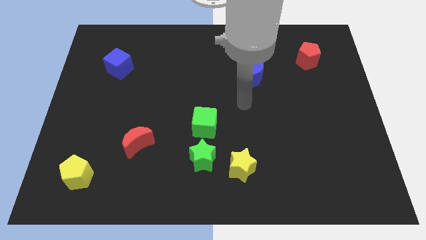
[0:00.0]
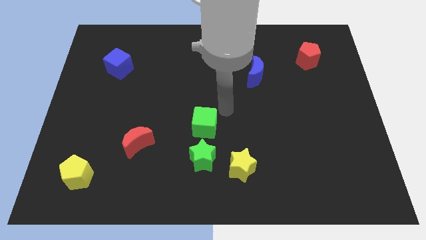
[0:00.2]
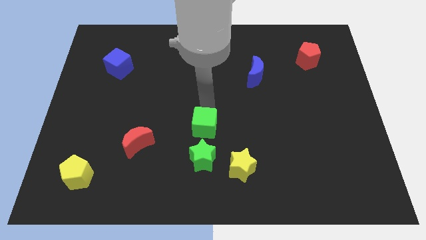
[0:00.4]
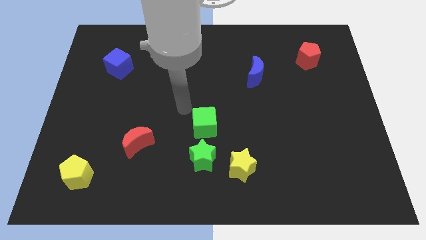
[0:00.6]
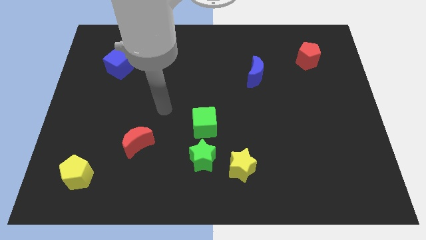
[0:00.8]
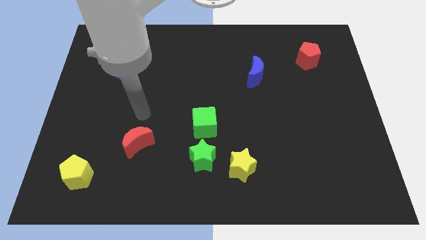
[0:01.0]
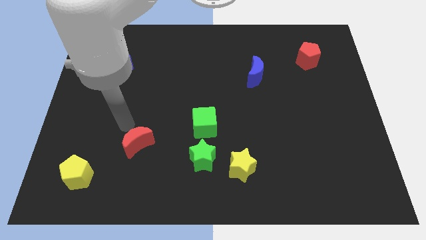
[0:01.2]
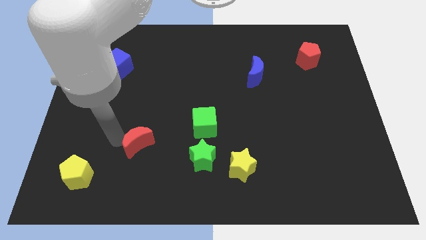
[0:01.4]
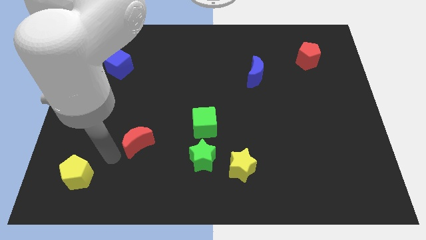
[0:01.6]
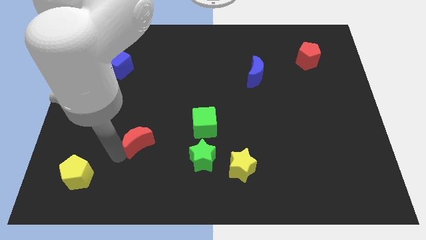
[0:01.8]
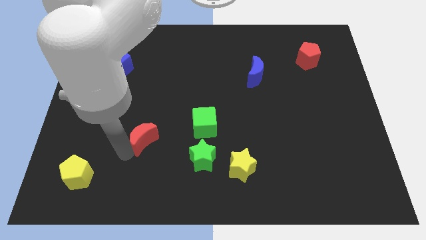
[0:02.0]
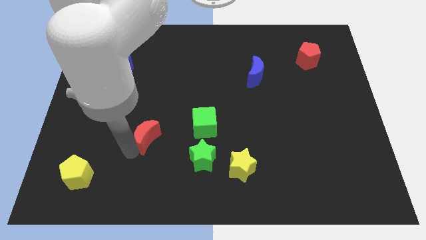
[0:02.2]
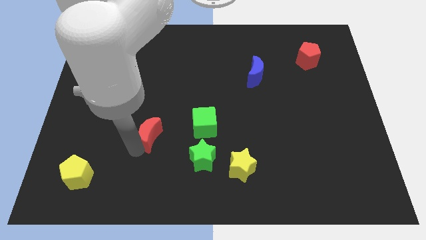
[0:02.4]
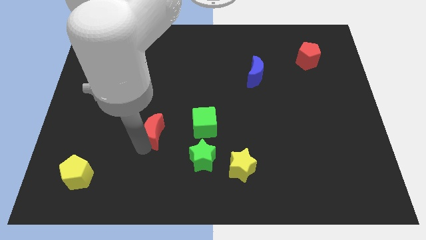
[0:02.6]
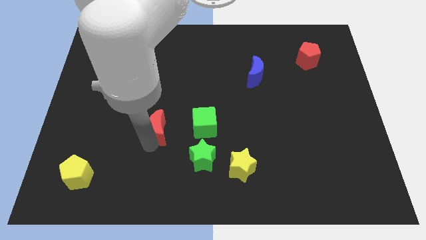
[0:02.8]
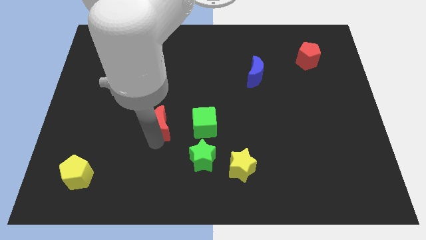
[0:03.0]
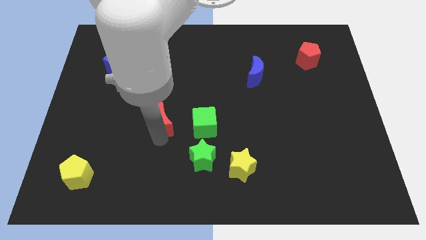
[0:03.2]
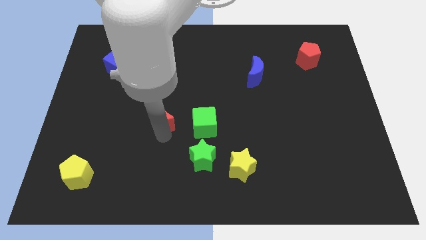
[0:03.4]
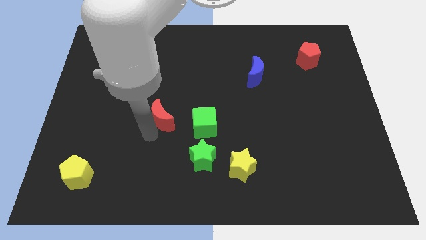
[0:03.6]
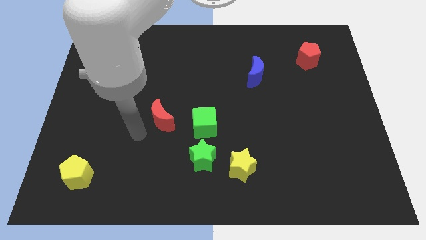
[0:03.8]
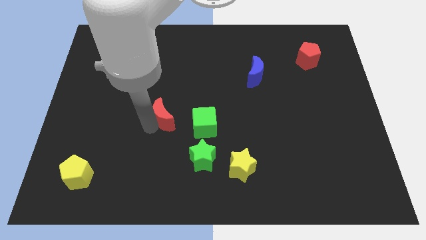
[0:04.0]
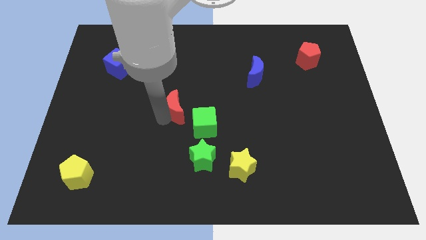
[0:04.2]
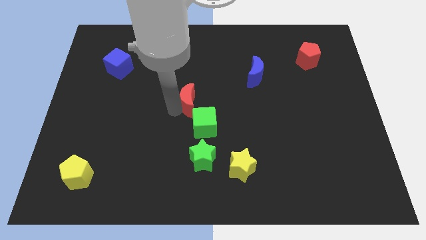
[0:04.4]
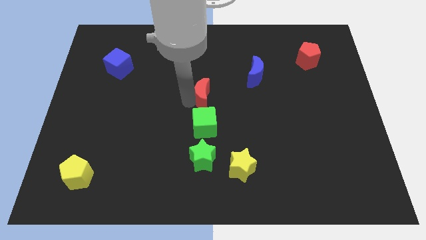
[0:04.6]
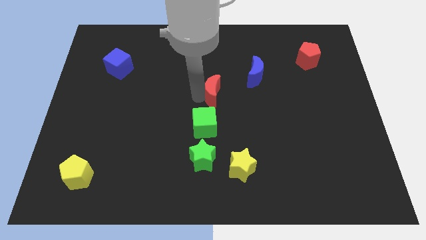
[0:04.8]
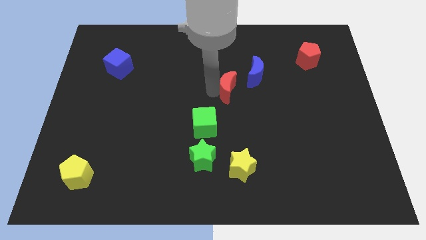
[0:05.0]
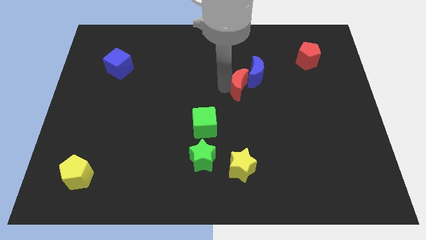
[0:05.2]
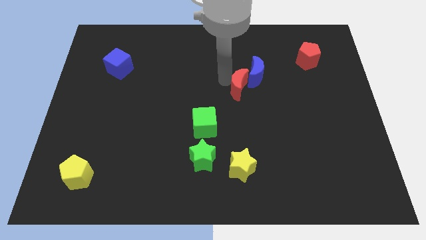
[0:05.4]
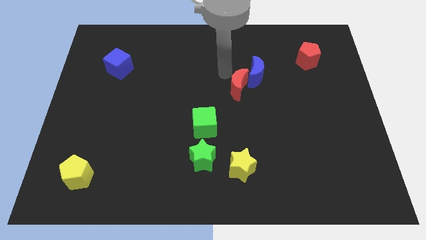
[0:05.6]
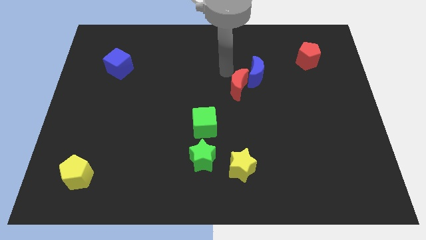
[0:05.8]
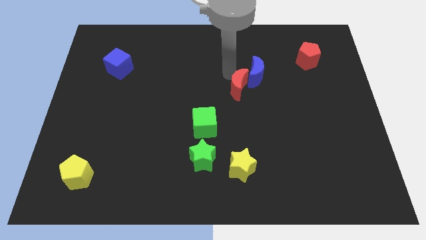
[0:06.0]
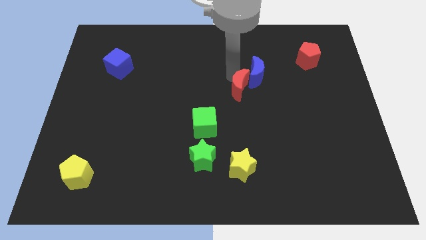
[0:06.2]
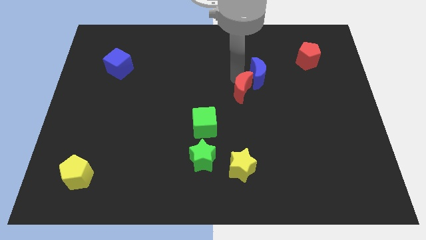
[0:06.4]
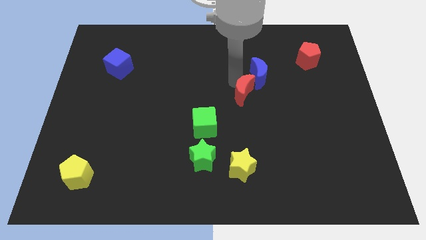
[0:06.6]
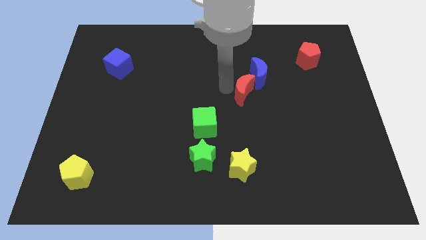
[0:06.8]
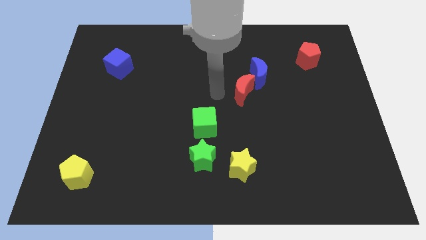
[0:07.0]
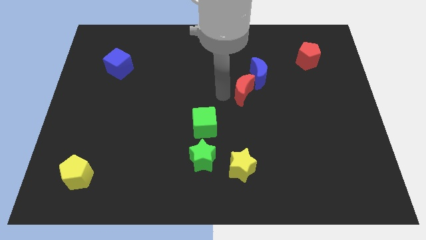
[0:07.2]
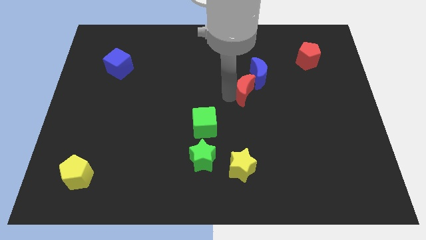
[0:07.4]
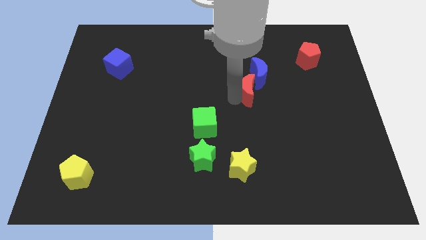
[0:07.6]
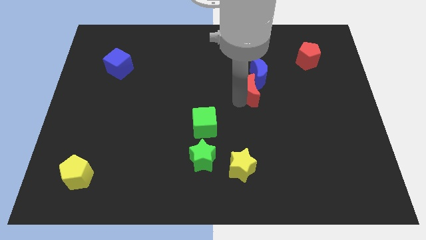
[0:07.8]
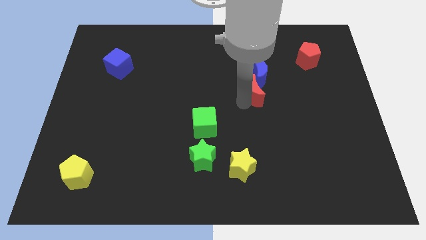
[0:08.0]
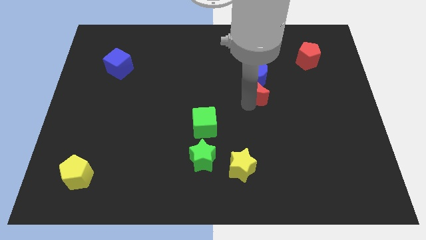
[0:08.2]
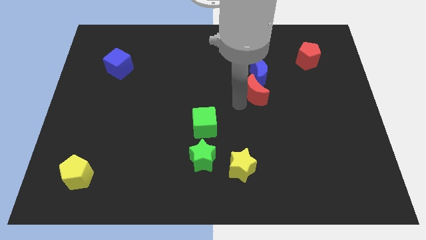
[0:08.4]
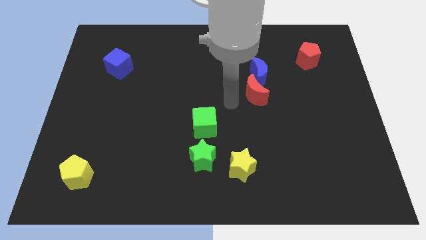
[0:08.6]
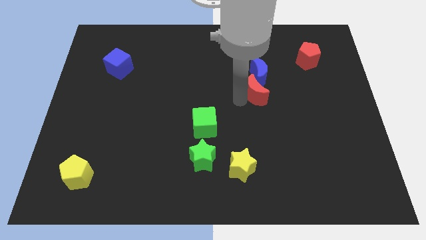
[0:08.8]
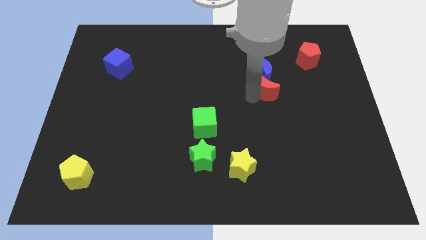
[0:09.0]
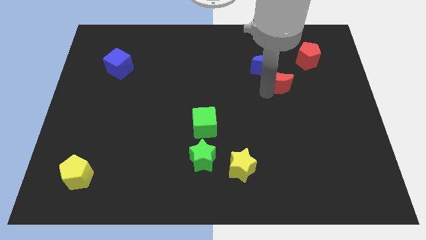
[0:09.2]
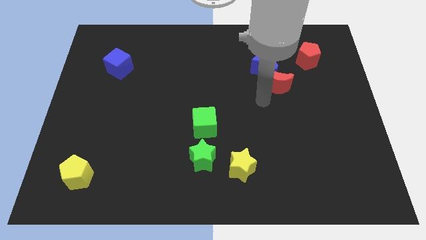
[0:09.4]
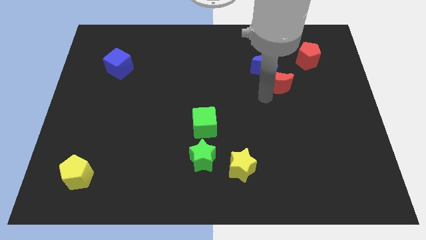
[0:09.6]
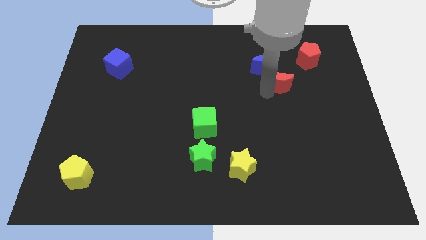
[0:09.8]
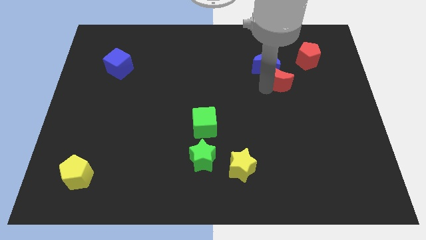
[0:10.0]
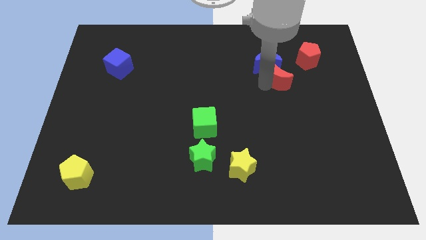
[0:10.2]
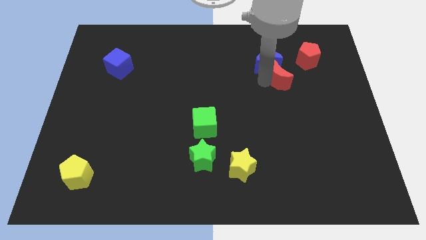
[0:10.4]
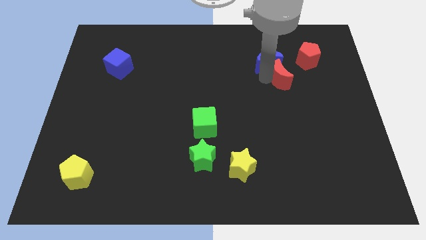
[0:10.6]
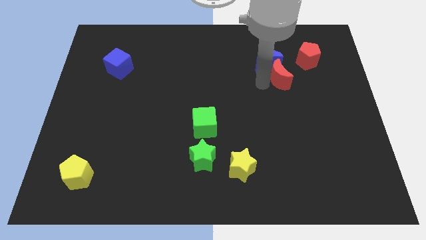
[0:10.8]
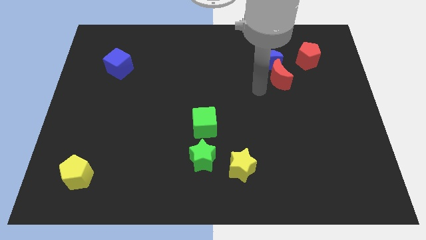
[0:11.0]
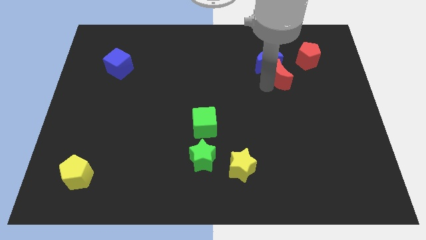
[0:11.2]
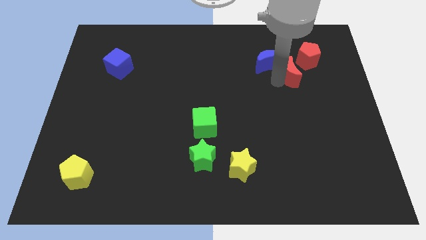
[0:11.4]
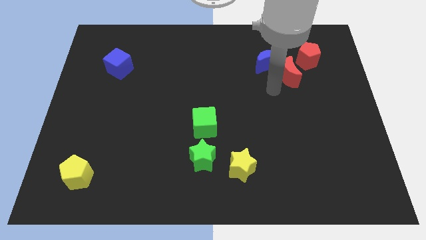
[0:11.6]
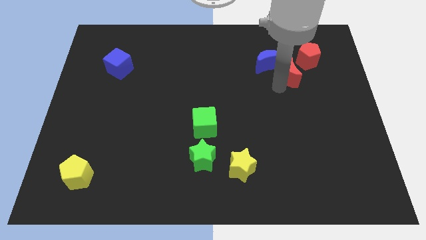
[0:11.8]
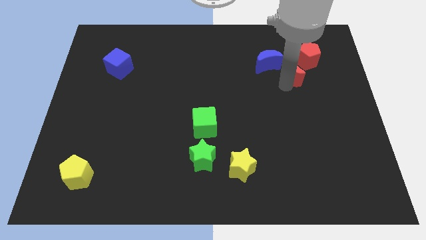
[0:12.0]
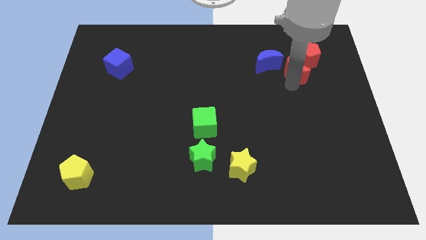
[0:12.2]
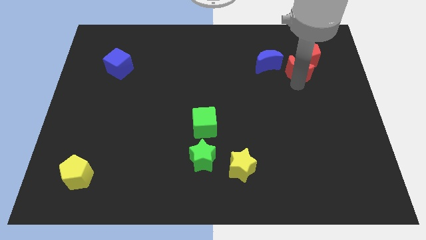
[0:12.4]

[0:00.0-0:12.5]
slide the red moon next to the red pentagon

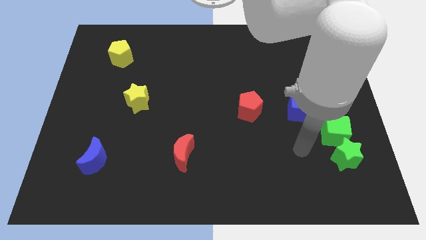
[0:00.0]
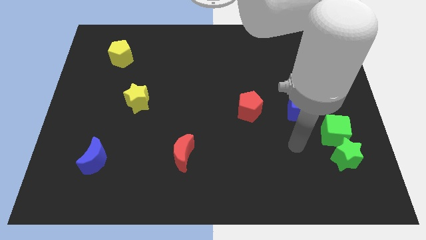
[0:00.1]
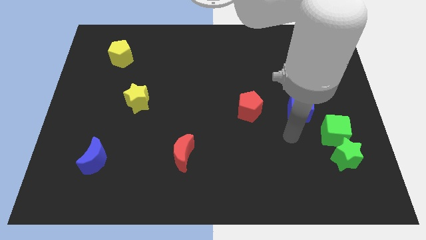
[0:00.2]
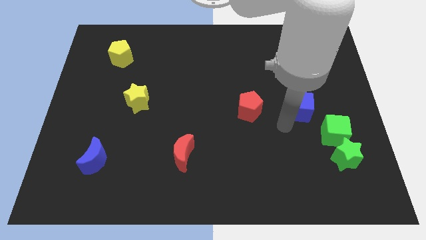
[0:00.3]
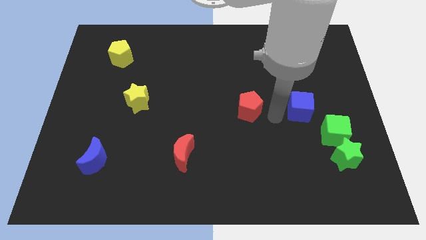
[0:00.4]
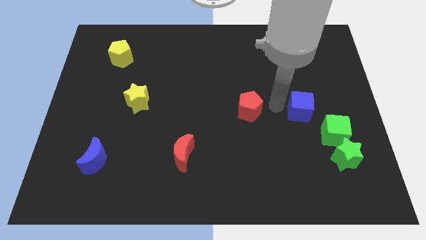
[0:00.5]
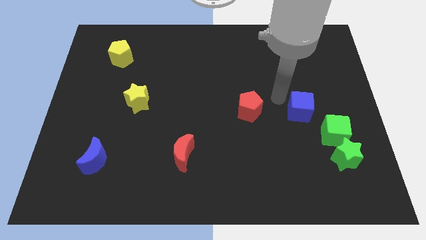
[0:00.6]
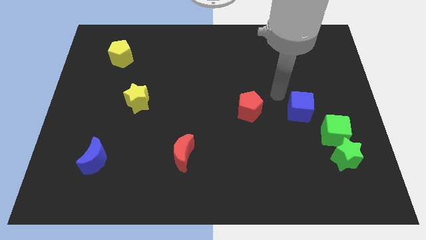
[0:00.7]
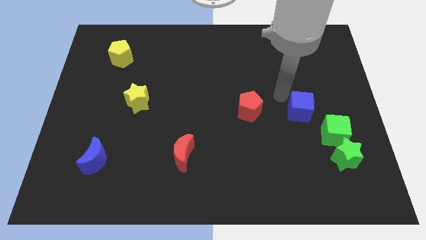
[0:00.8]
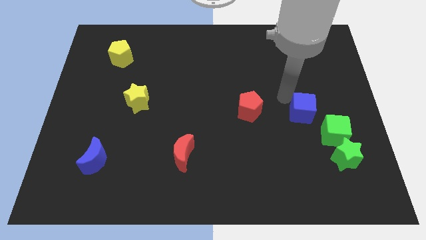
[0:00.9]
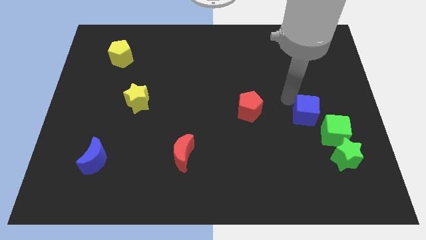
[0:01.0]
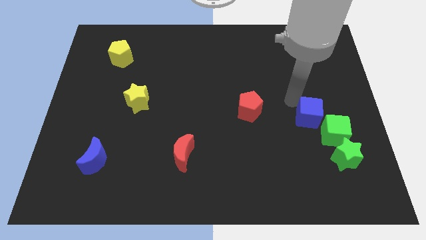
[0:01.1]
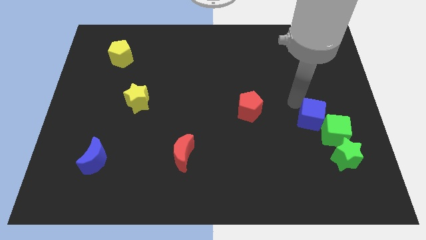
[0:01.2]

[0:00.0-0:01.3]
push the blue cube to the green cube

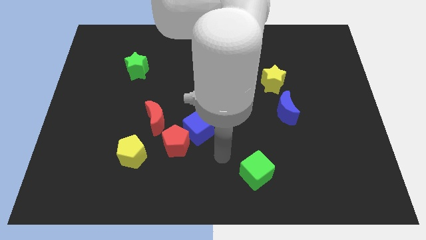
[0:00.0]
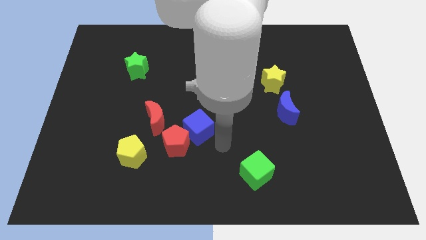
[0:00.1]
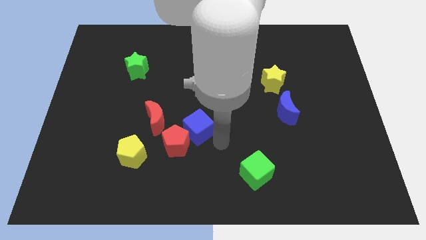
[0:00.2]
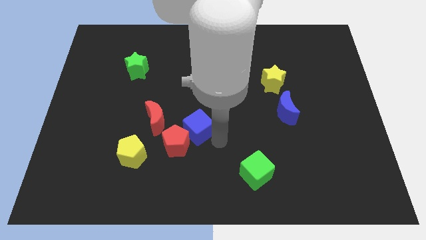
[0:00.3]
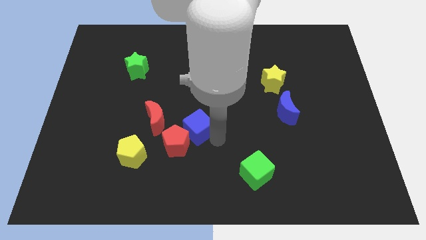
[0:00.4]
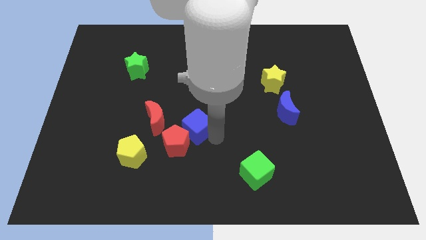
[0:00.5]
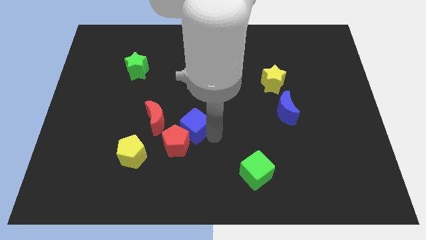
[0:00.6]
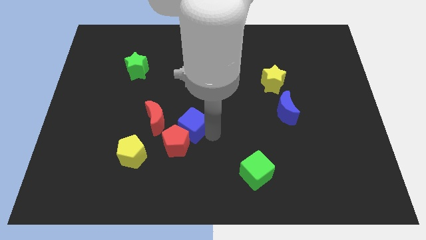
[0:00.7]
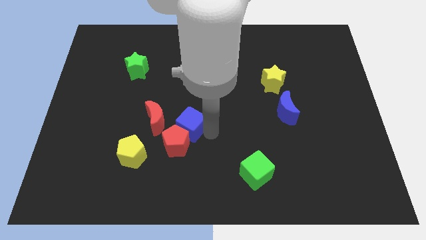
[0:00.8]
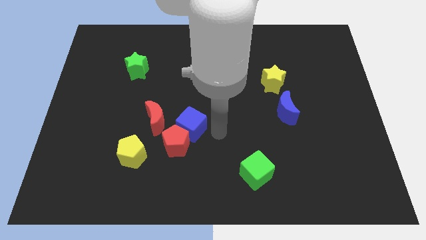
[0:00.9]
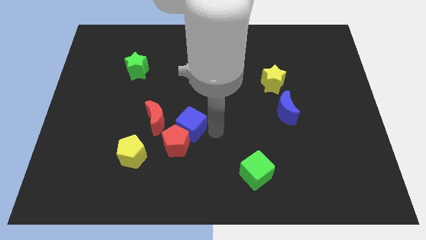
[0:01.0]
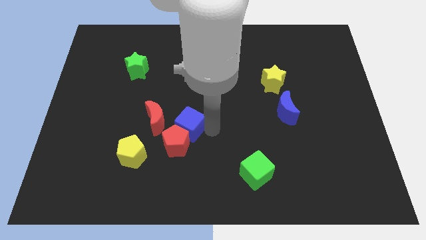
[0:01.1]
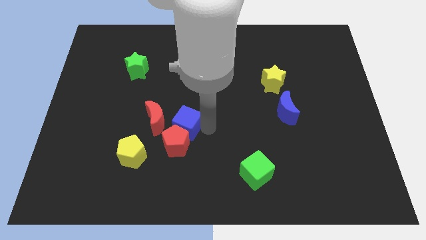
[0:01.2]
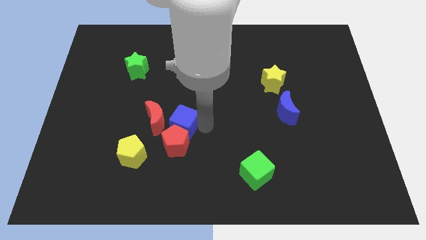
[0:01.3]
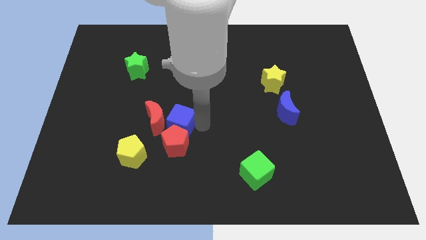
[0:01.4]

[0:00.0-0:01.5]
move the blue cube close to the red moon
